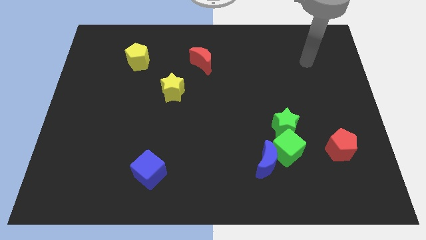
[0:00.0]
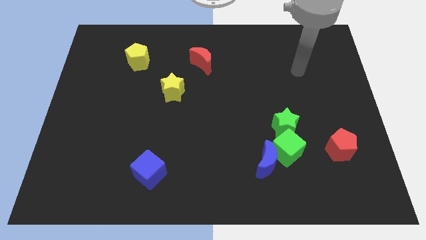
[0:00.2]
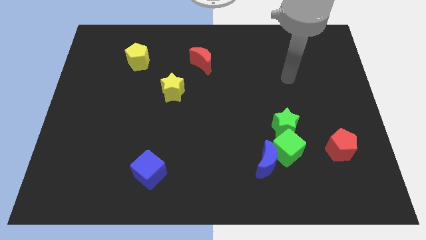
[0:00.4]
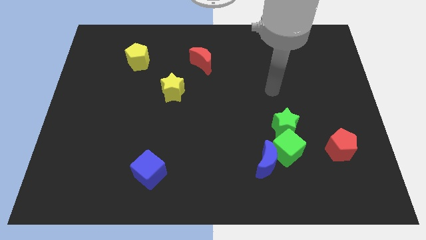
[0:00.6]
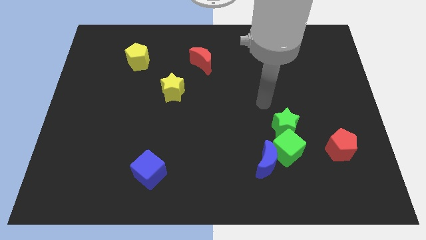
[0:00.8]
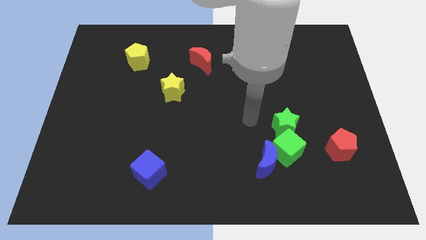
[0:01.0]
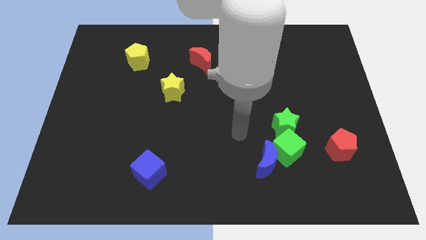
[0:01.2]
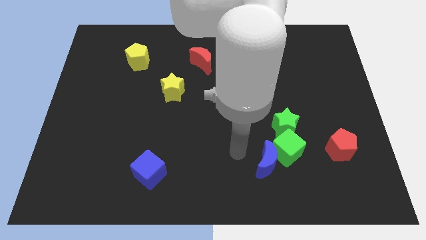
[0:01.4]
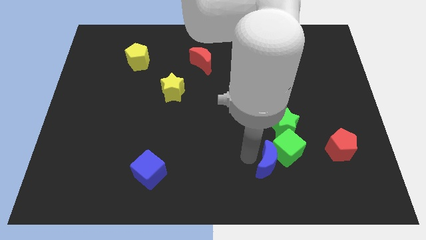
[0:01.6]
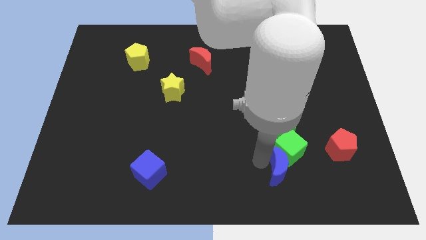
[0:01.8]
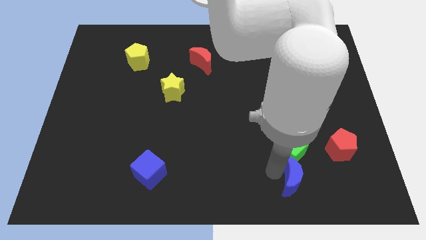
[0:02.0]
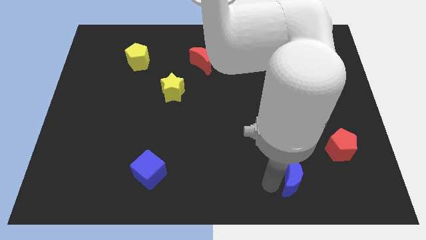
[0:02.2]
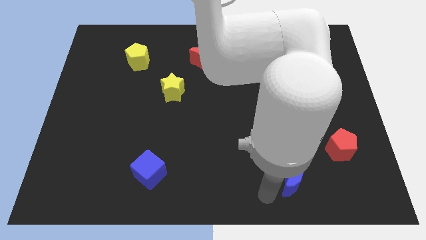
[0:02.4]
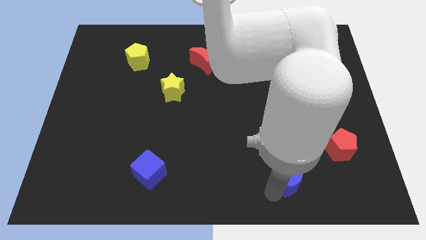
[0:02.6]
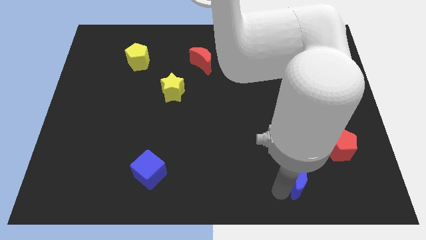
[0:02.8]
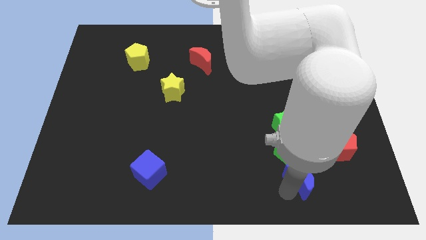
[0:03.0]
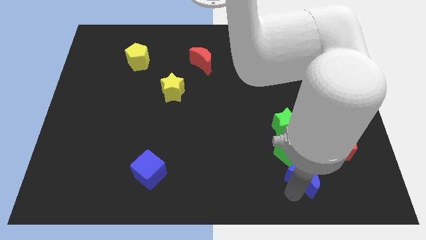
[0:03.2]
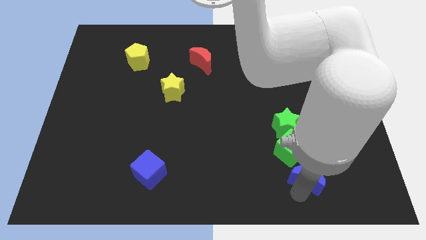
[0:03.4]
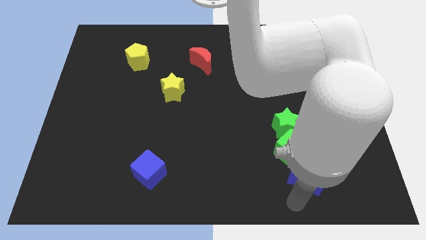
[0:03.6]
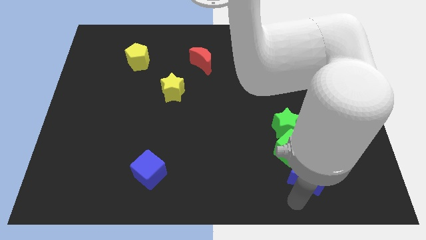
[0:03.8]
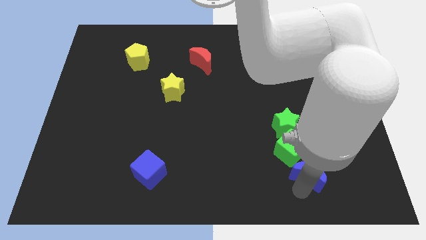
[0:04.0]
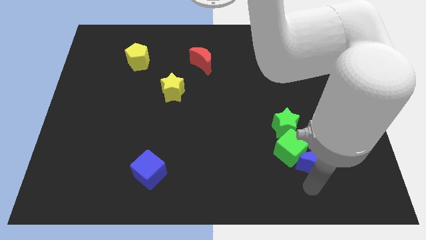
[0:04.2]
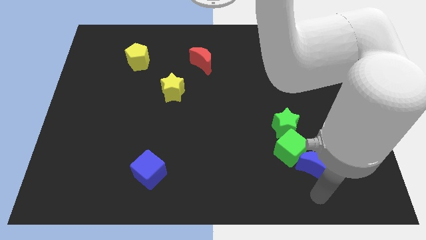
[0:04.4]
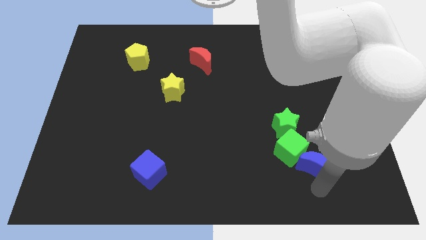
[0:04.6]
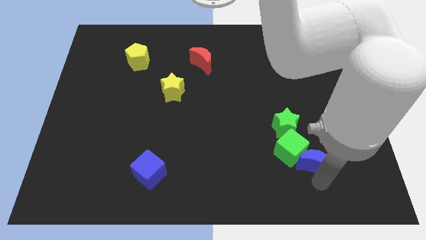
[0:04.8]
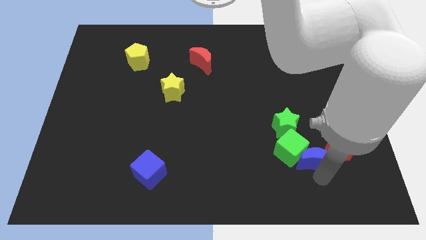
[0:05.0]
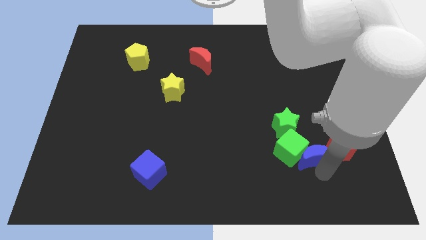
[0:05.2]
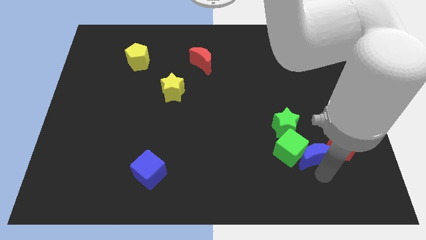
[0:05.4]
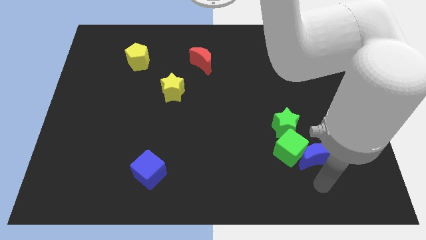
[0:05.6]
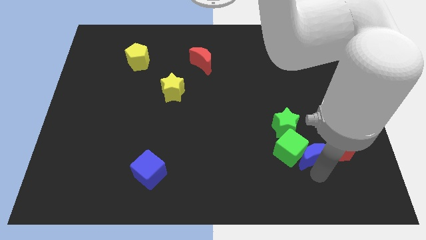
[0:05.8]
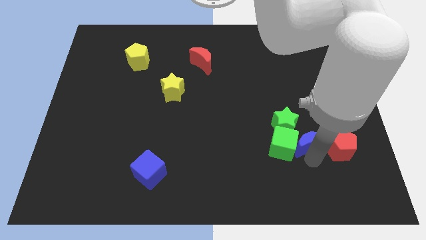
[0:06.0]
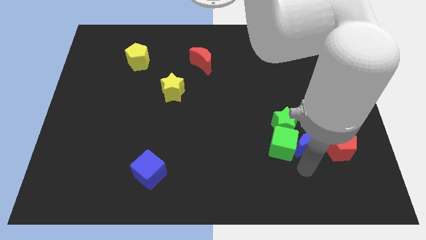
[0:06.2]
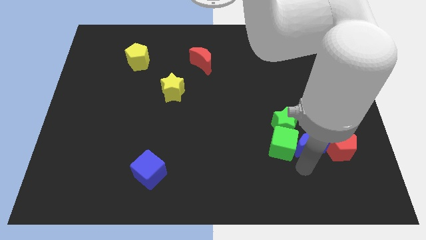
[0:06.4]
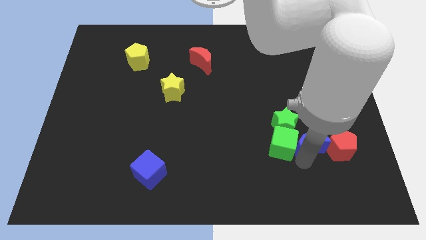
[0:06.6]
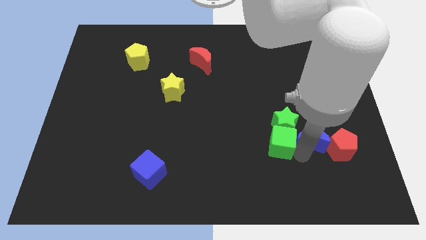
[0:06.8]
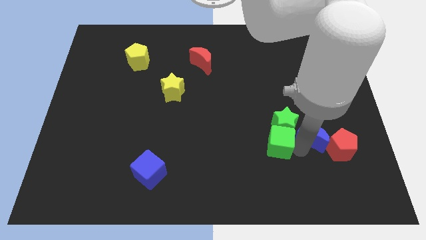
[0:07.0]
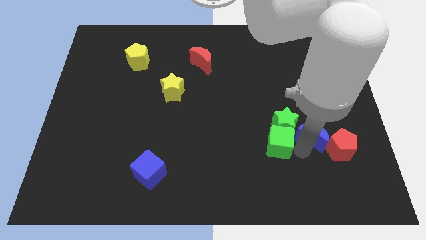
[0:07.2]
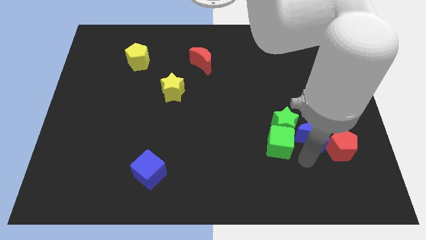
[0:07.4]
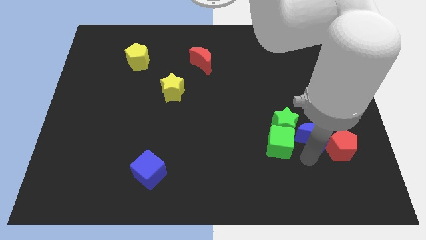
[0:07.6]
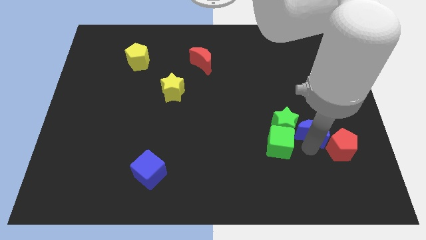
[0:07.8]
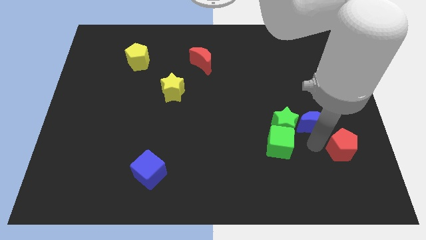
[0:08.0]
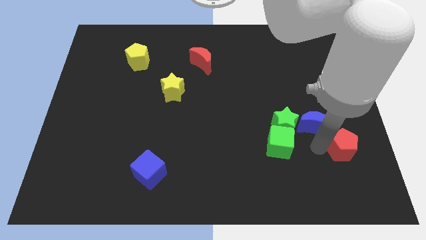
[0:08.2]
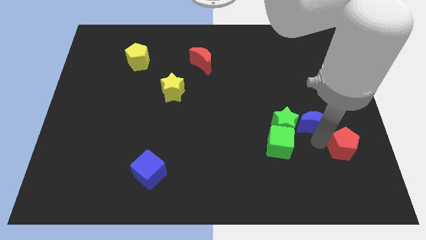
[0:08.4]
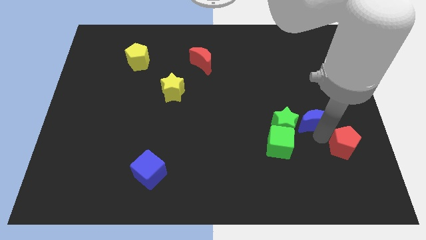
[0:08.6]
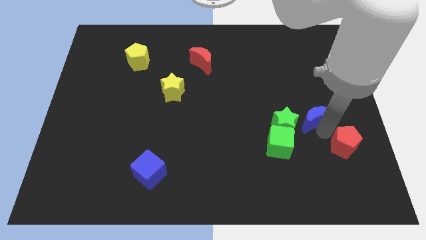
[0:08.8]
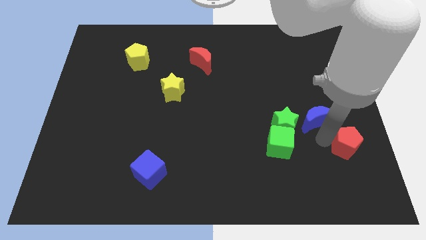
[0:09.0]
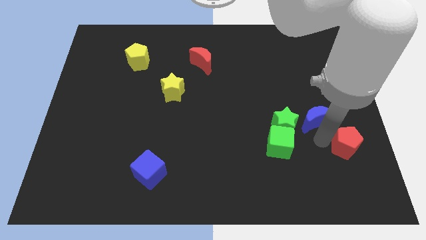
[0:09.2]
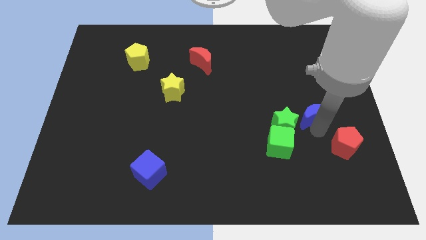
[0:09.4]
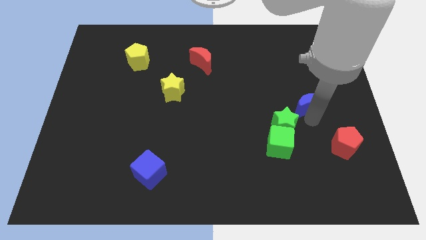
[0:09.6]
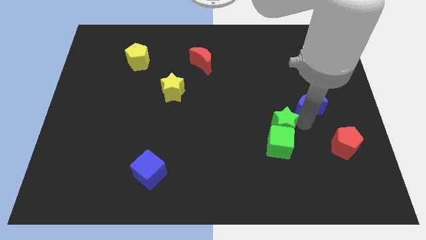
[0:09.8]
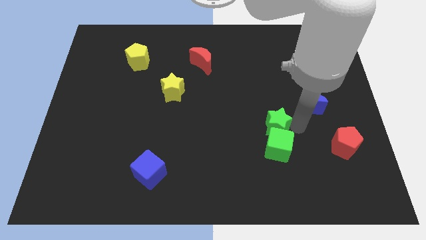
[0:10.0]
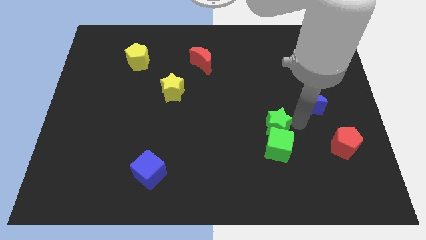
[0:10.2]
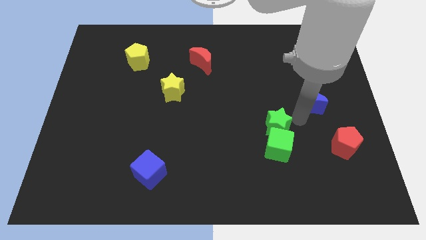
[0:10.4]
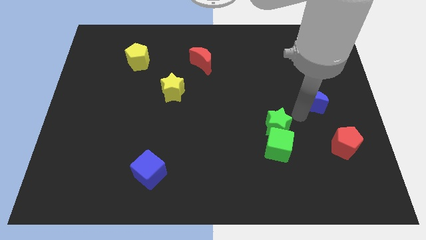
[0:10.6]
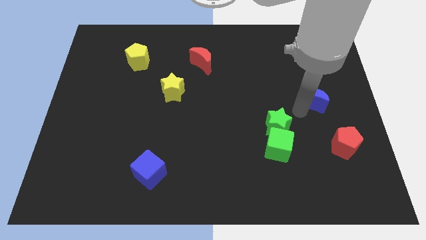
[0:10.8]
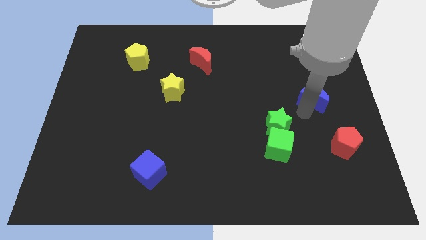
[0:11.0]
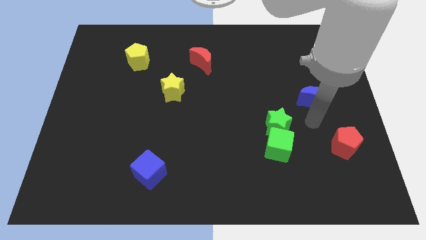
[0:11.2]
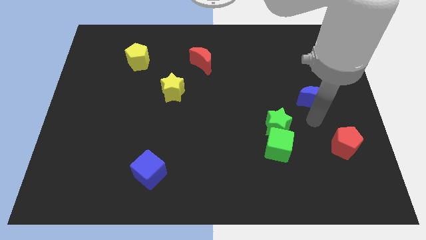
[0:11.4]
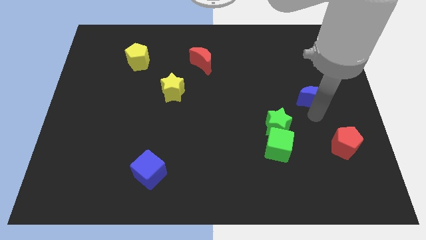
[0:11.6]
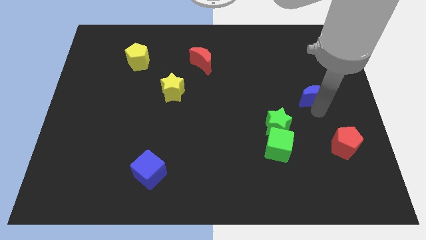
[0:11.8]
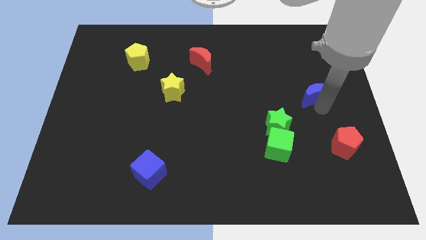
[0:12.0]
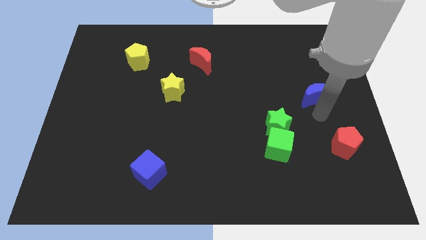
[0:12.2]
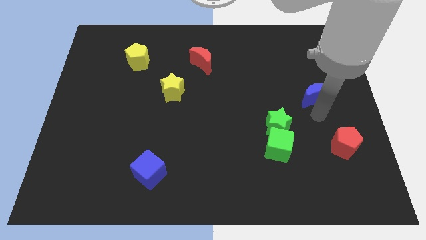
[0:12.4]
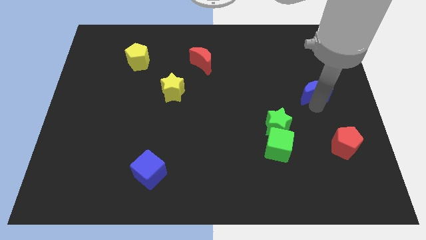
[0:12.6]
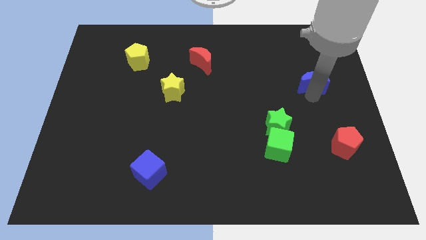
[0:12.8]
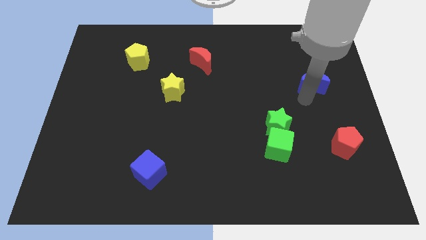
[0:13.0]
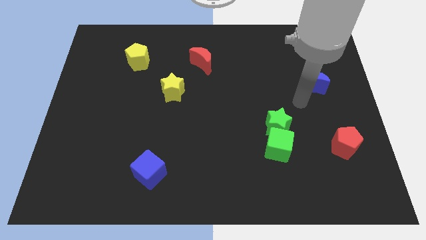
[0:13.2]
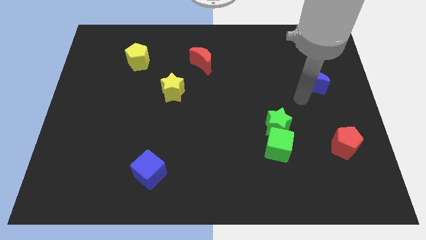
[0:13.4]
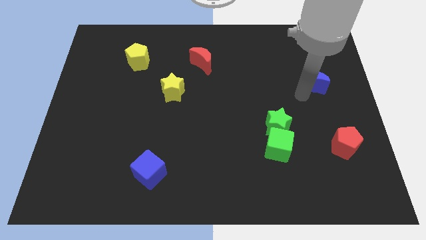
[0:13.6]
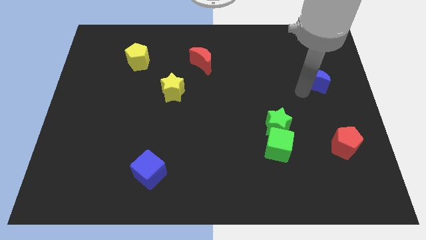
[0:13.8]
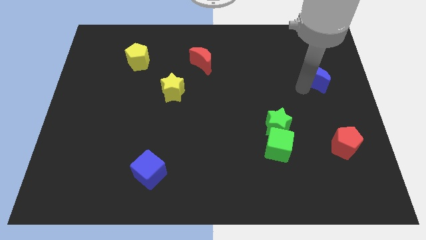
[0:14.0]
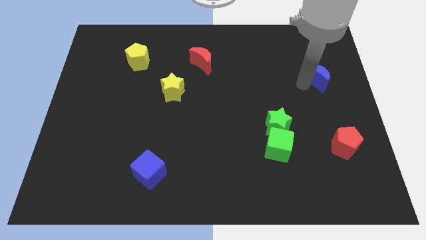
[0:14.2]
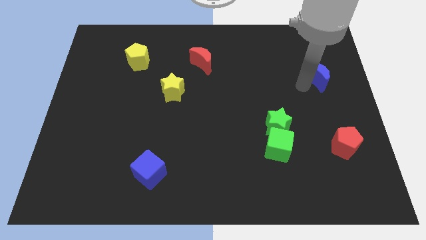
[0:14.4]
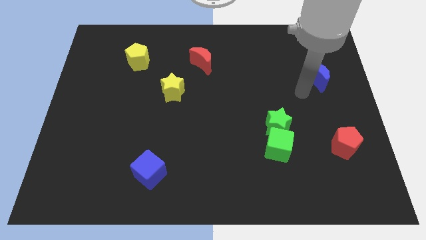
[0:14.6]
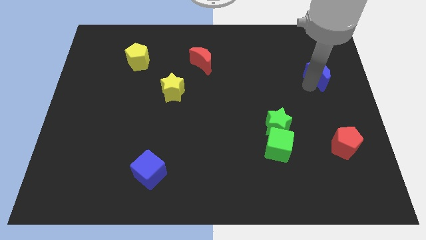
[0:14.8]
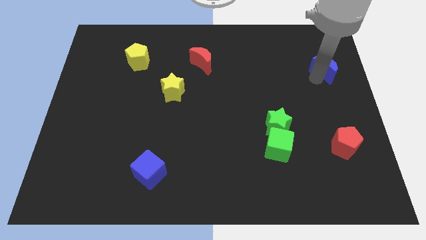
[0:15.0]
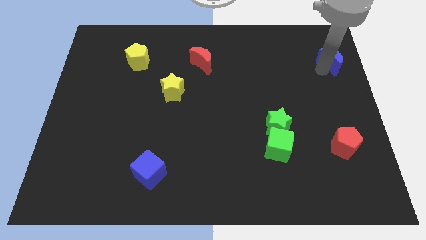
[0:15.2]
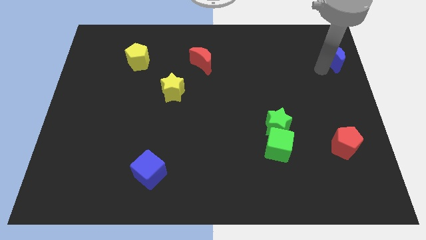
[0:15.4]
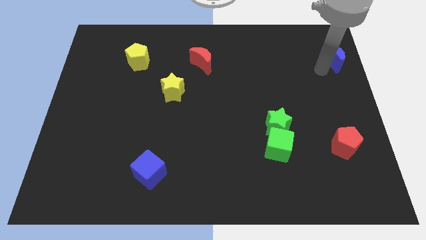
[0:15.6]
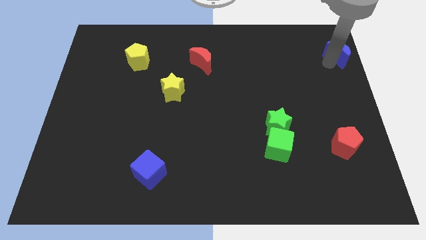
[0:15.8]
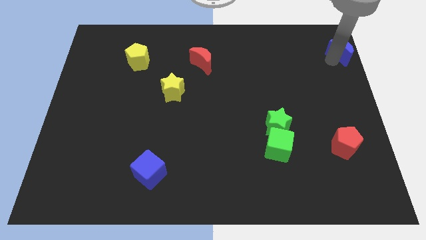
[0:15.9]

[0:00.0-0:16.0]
push the blue moon to the top right corner
